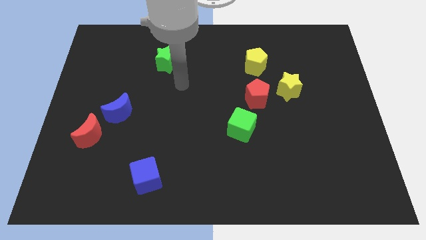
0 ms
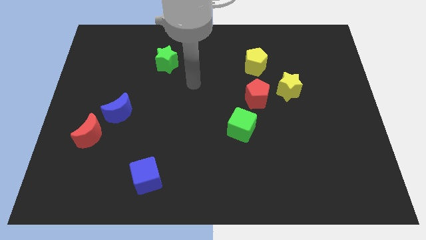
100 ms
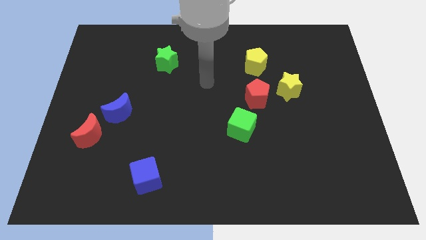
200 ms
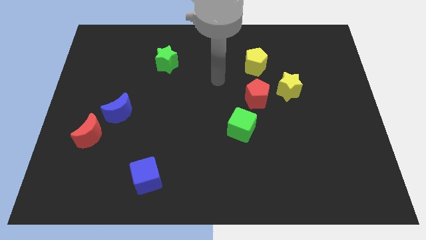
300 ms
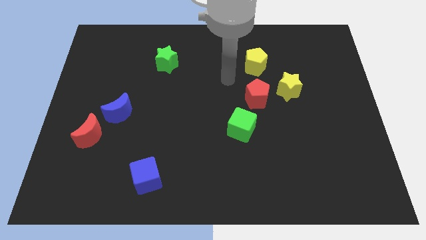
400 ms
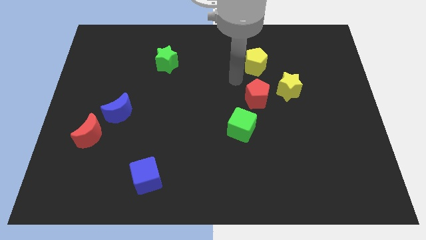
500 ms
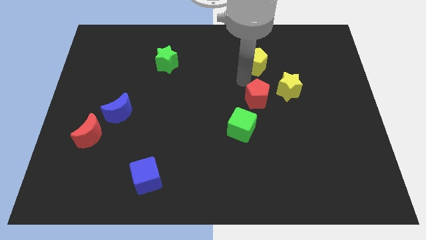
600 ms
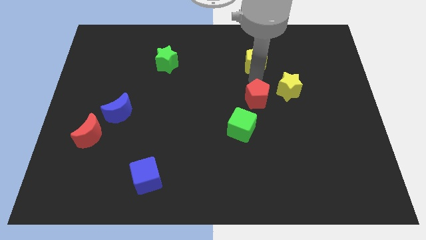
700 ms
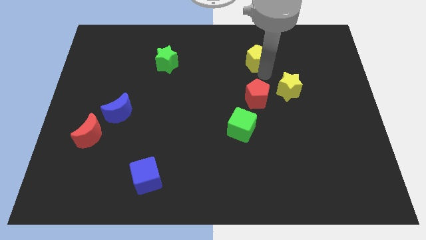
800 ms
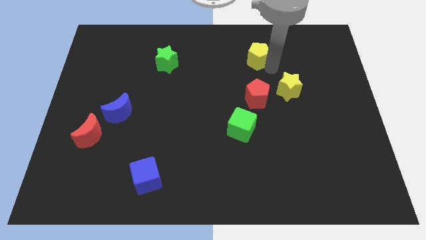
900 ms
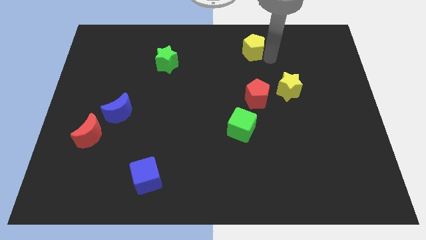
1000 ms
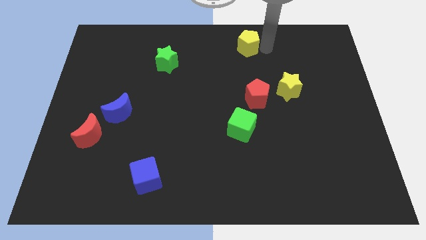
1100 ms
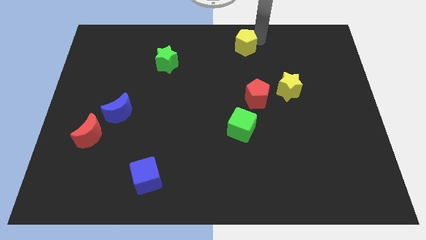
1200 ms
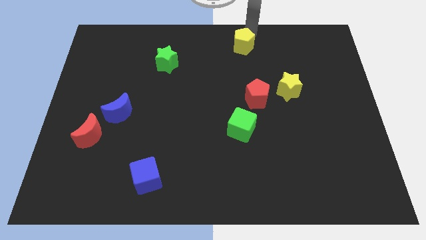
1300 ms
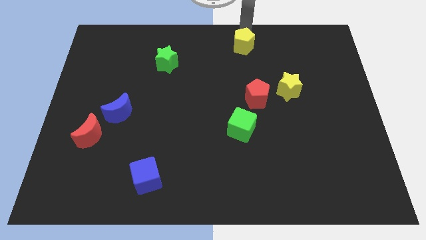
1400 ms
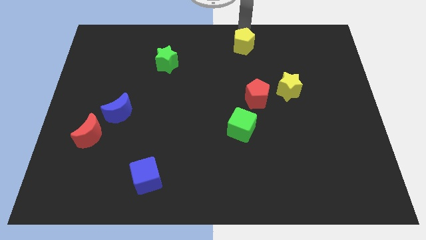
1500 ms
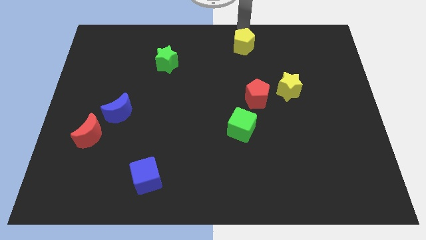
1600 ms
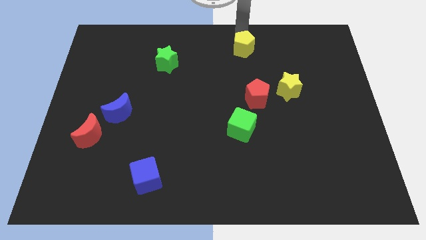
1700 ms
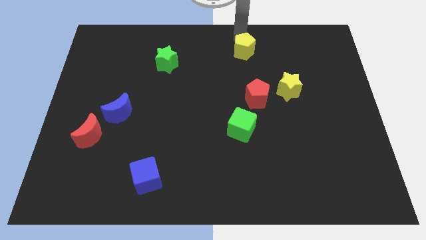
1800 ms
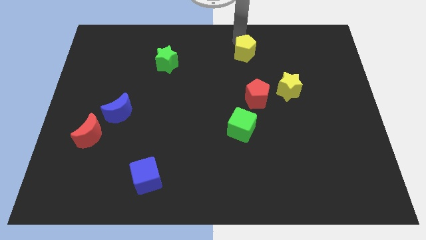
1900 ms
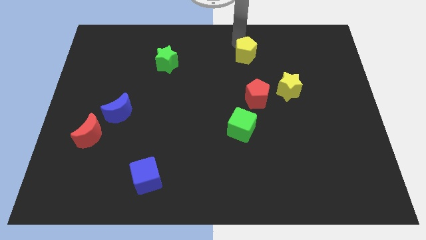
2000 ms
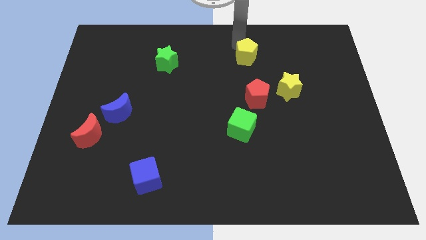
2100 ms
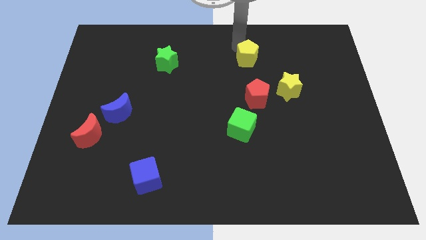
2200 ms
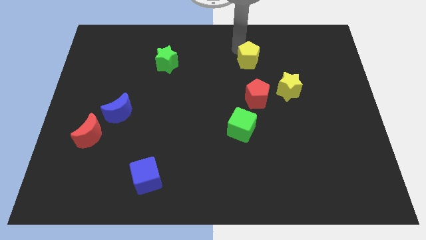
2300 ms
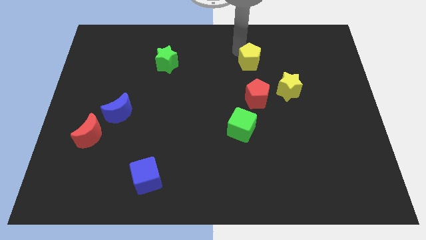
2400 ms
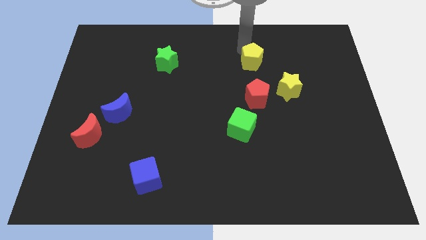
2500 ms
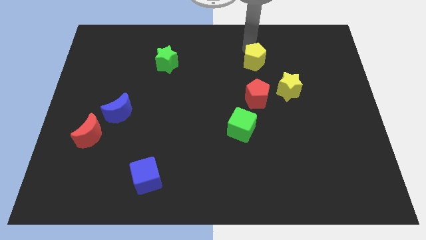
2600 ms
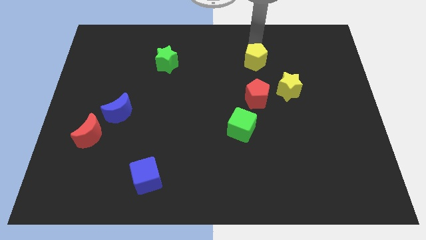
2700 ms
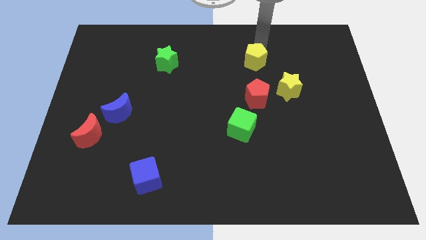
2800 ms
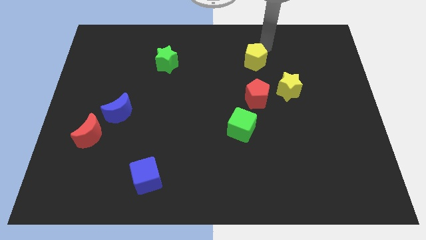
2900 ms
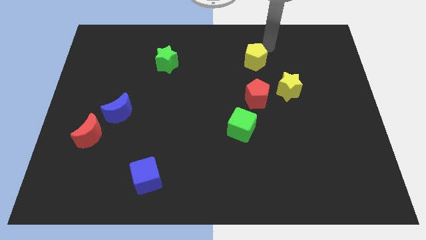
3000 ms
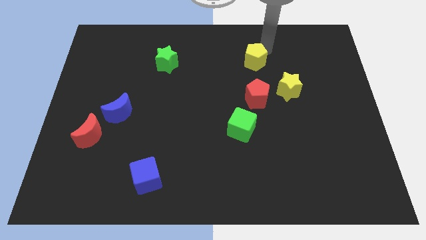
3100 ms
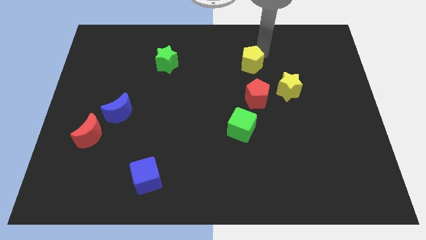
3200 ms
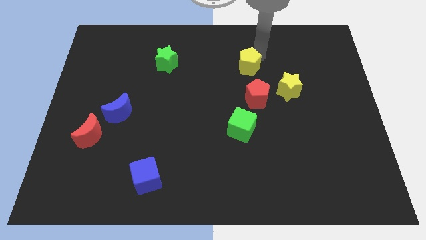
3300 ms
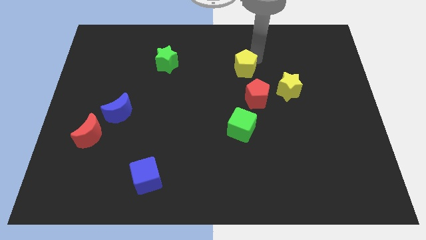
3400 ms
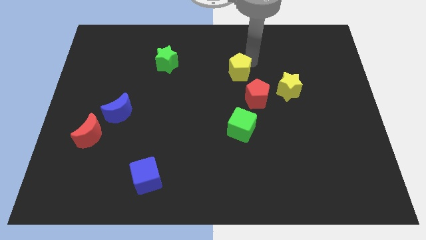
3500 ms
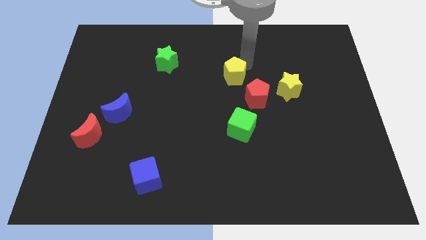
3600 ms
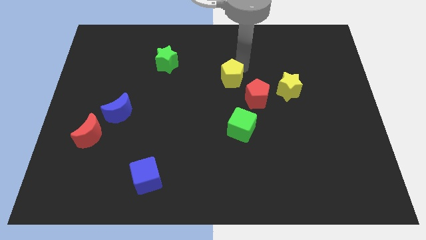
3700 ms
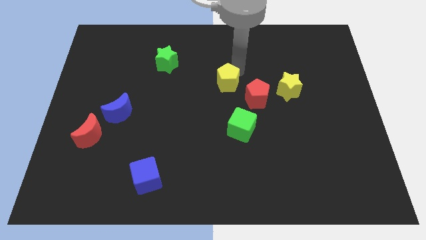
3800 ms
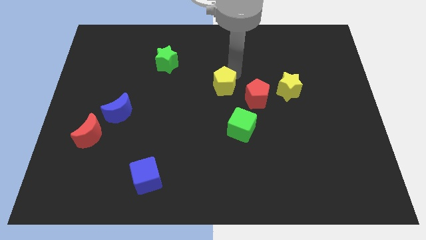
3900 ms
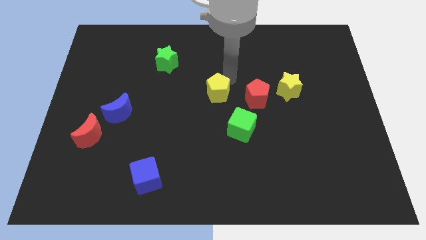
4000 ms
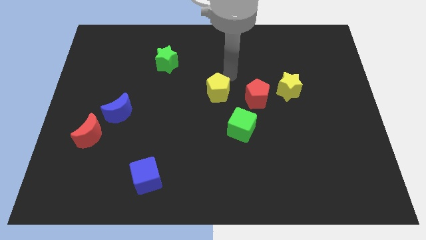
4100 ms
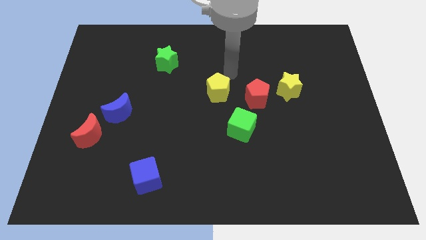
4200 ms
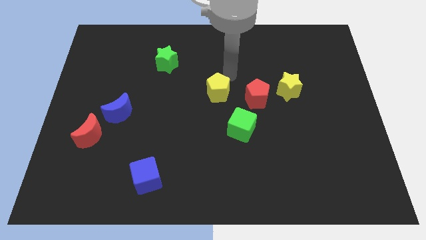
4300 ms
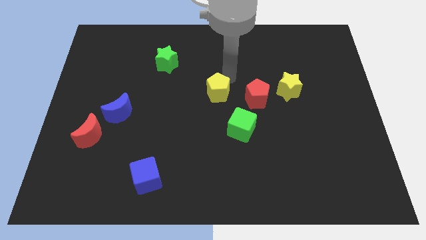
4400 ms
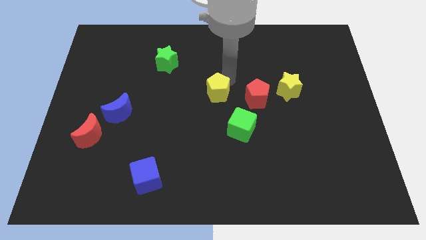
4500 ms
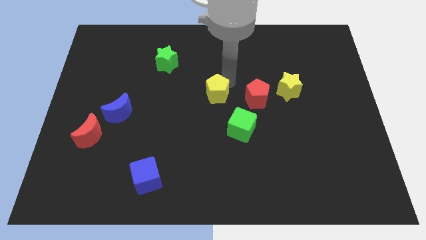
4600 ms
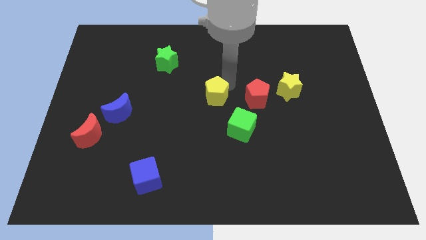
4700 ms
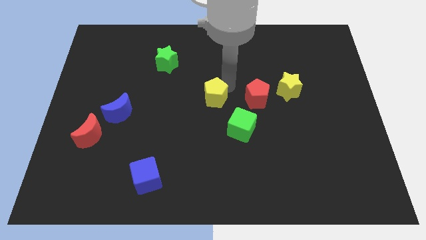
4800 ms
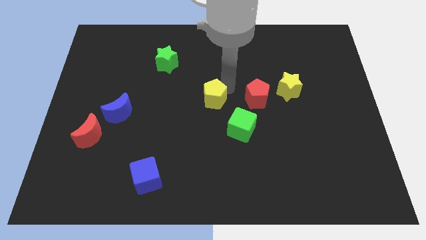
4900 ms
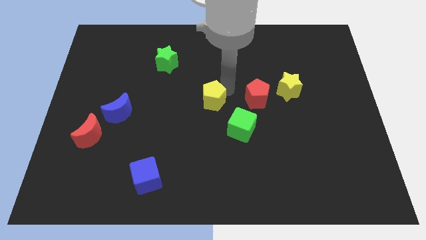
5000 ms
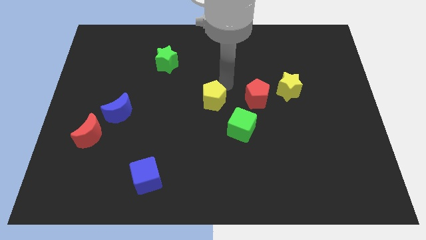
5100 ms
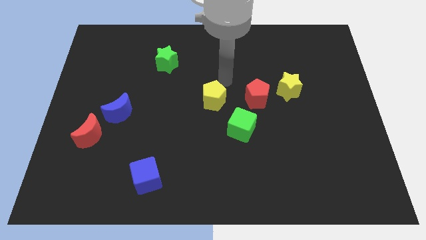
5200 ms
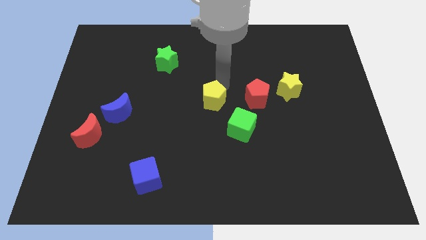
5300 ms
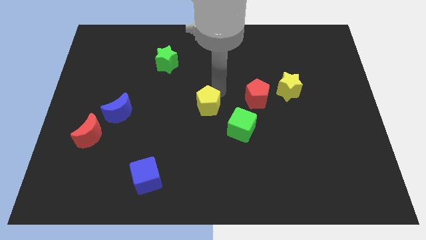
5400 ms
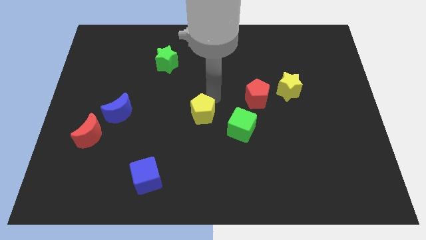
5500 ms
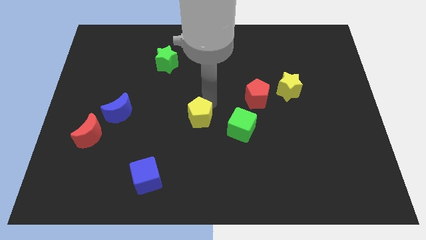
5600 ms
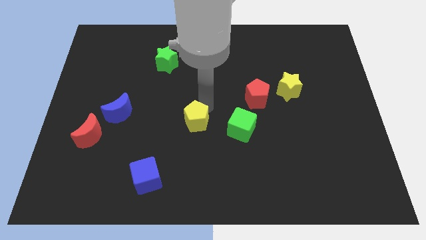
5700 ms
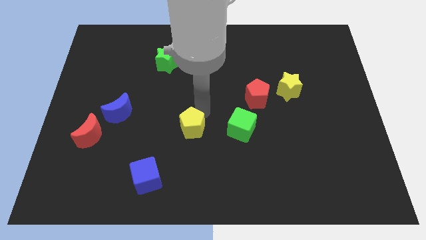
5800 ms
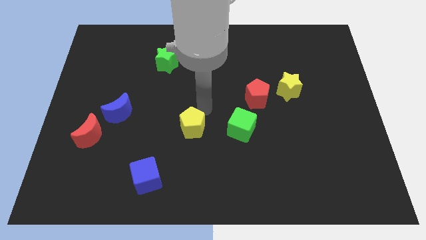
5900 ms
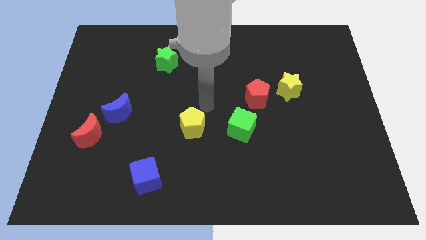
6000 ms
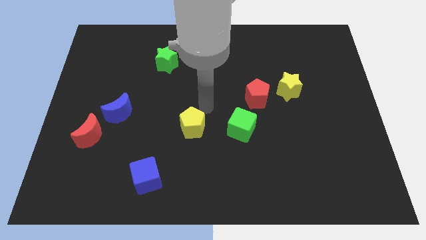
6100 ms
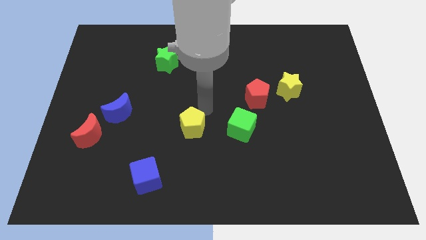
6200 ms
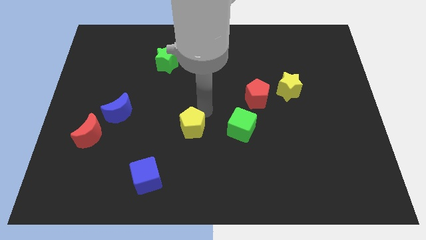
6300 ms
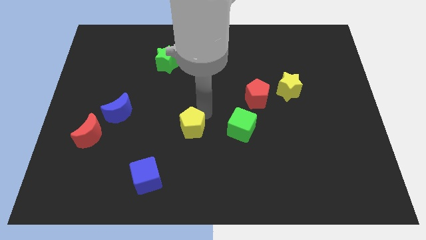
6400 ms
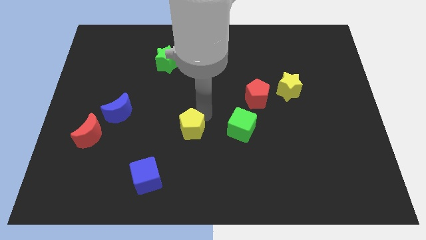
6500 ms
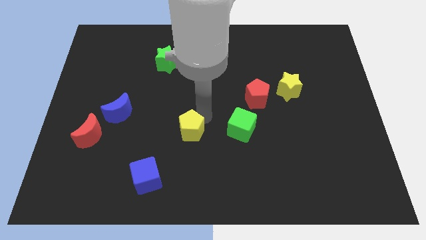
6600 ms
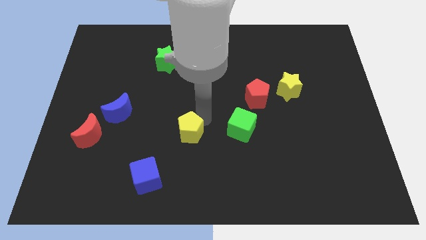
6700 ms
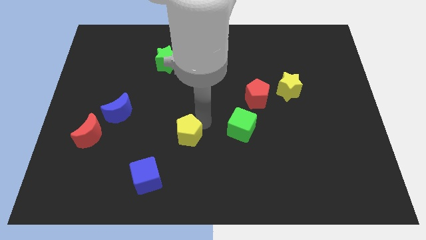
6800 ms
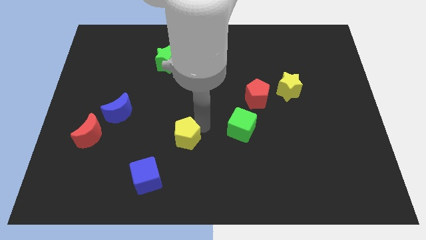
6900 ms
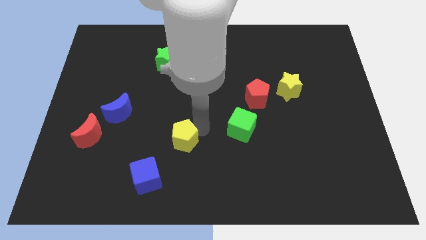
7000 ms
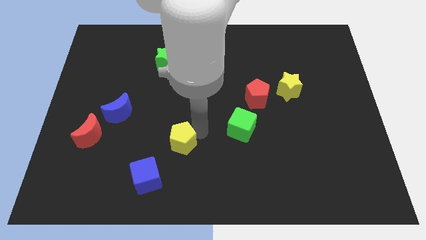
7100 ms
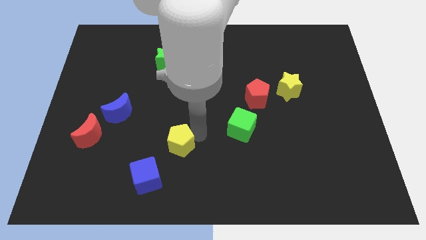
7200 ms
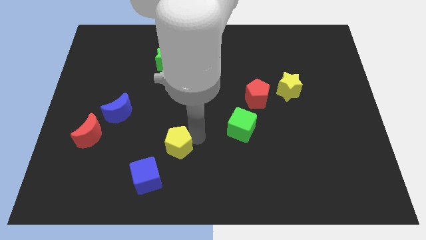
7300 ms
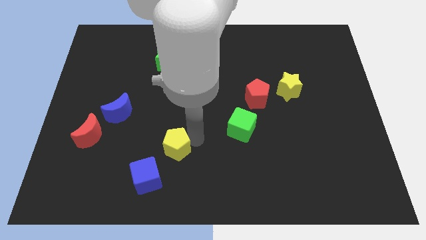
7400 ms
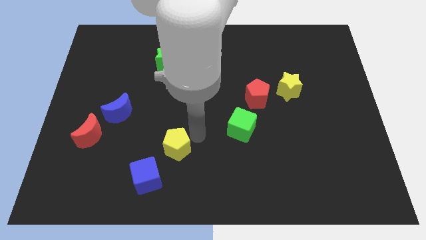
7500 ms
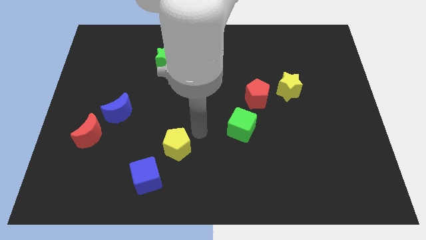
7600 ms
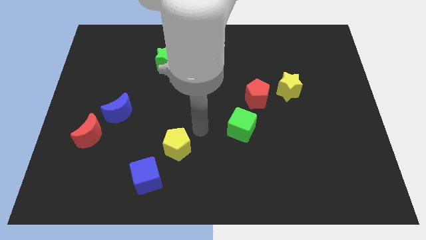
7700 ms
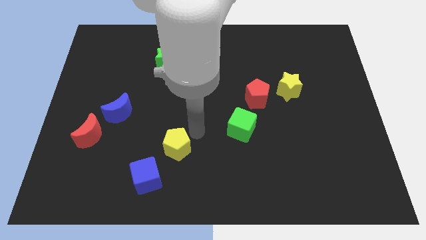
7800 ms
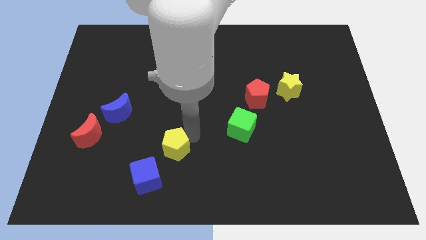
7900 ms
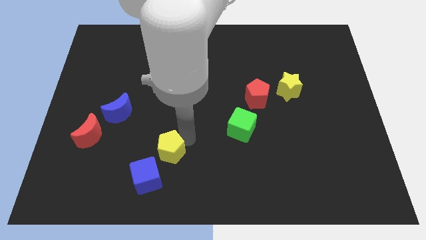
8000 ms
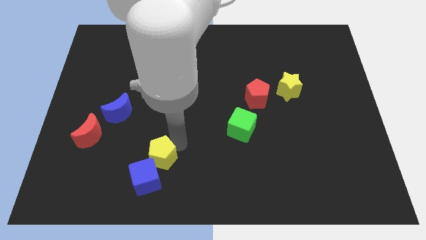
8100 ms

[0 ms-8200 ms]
push the yellow pentagon to the blue cube
